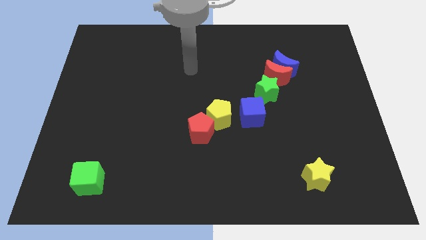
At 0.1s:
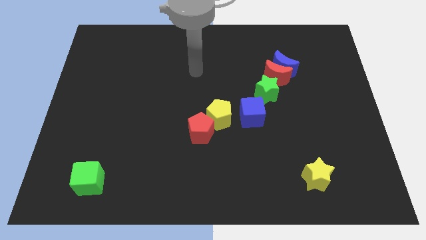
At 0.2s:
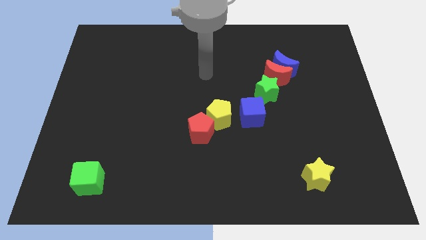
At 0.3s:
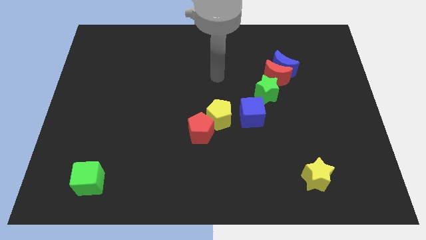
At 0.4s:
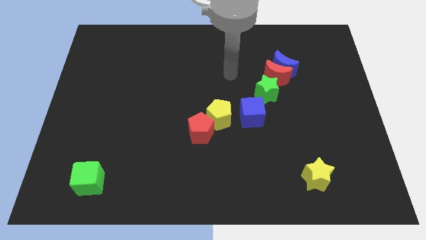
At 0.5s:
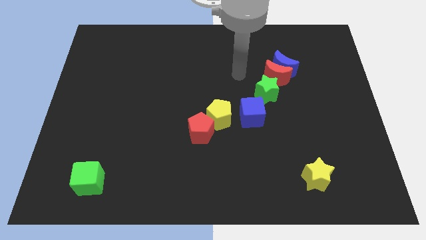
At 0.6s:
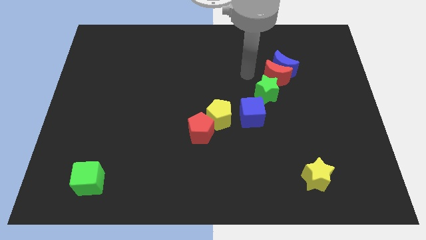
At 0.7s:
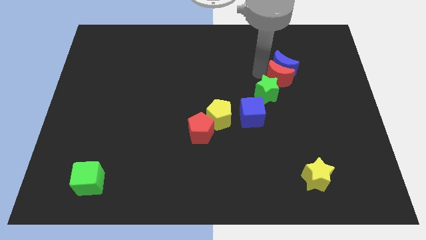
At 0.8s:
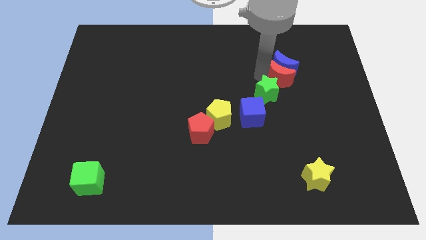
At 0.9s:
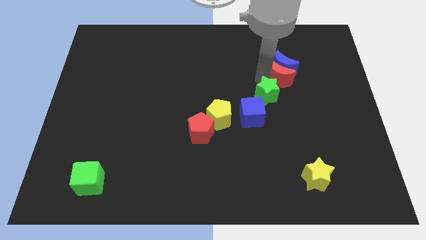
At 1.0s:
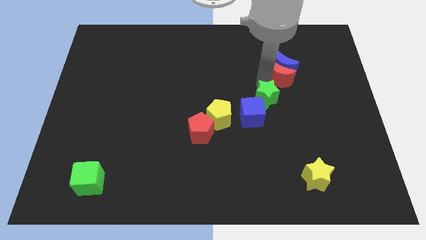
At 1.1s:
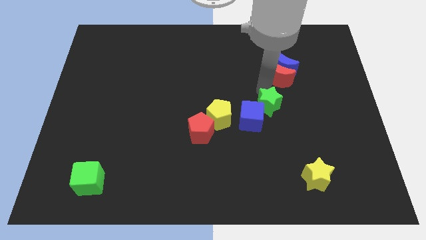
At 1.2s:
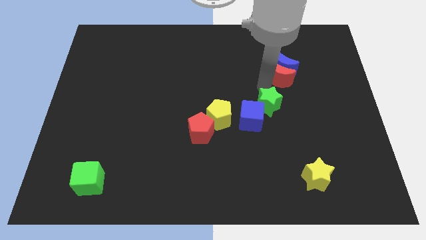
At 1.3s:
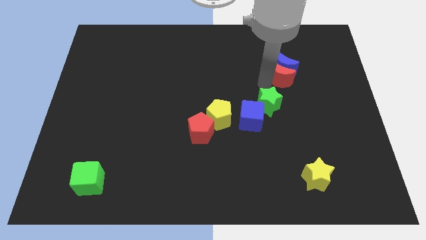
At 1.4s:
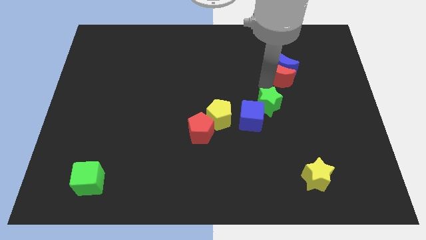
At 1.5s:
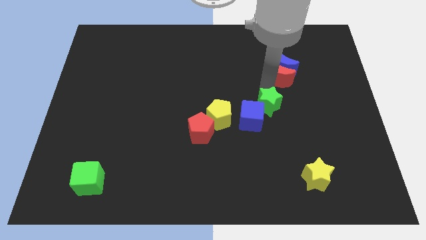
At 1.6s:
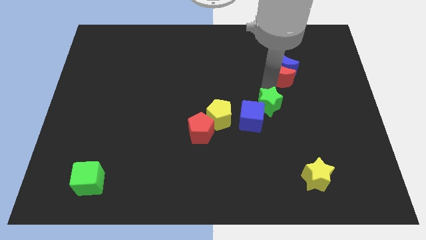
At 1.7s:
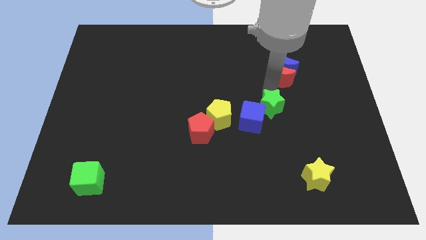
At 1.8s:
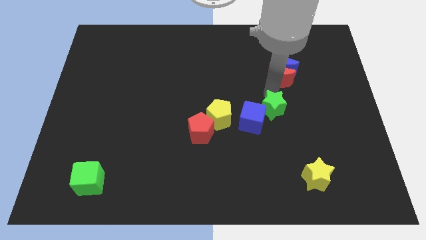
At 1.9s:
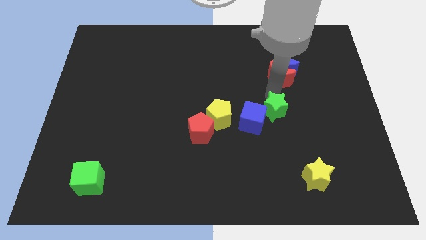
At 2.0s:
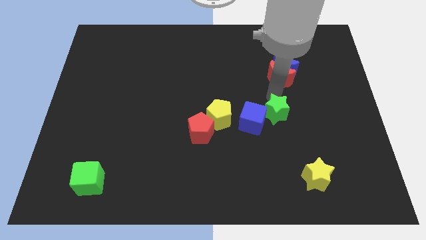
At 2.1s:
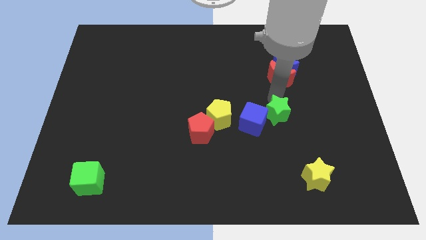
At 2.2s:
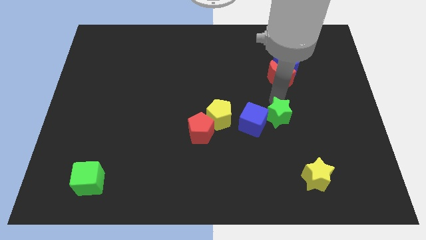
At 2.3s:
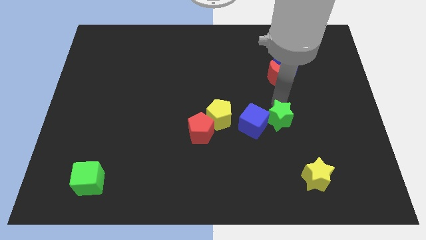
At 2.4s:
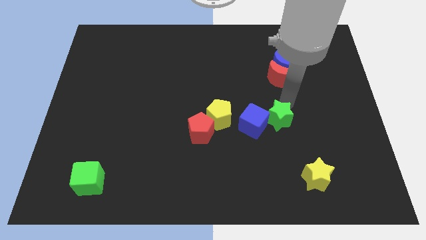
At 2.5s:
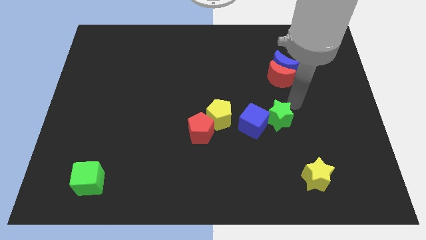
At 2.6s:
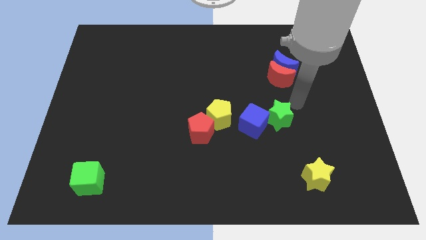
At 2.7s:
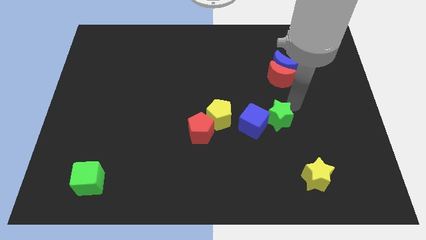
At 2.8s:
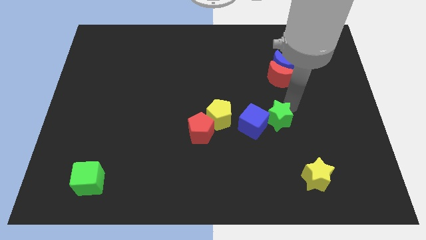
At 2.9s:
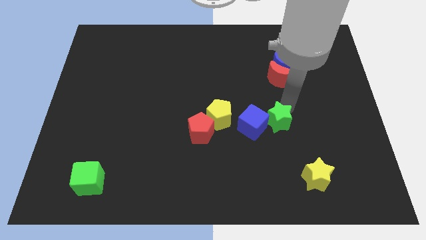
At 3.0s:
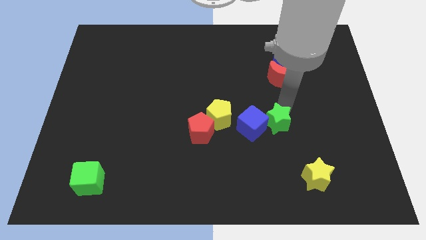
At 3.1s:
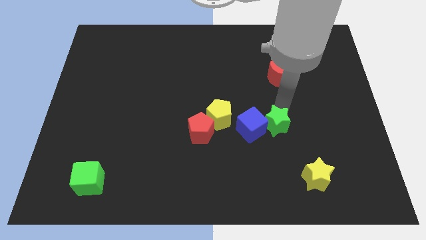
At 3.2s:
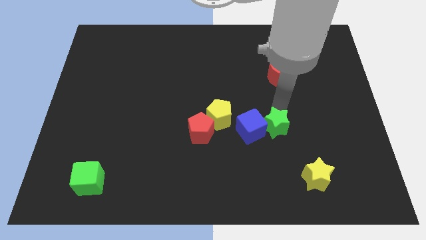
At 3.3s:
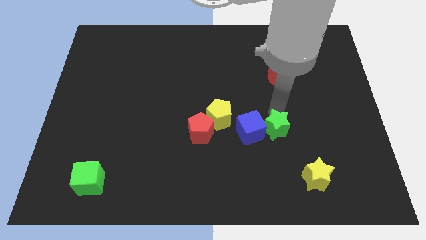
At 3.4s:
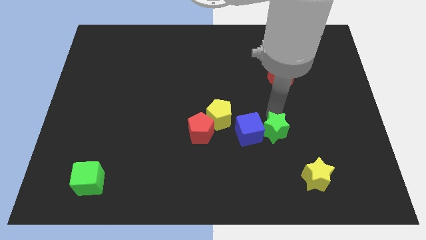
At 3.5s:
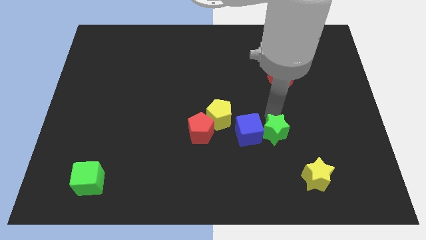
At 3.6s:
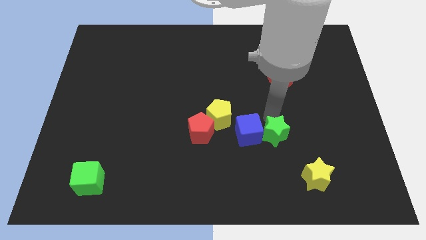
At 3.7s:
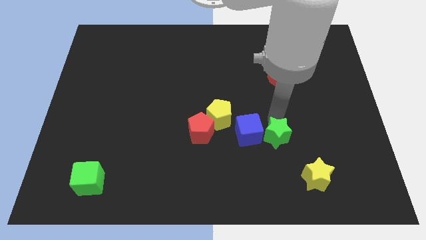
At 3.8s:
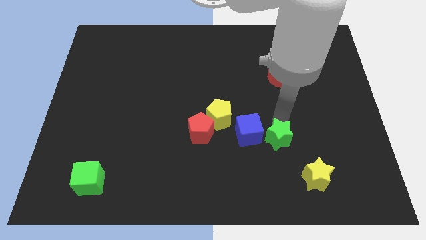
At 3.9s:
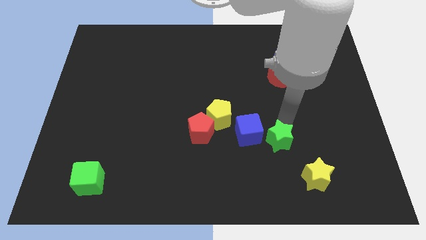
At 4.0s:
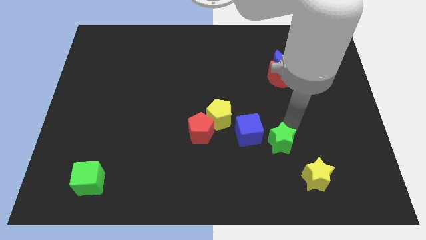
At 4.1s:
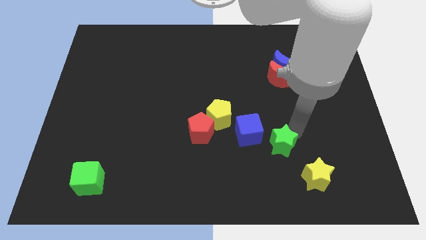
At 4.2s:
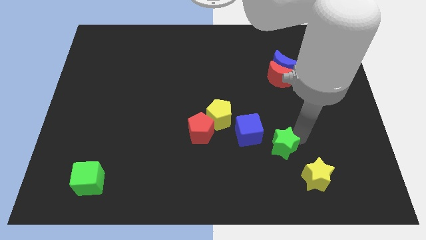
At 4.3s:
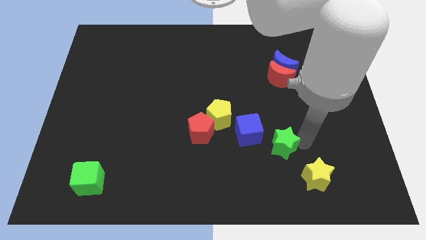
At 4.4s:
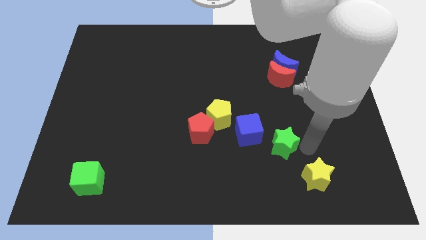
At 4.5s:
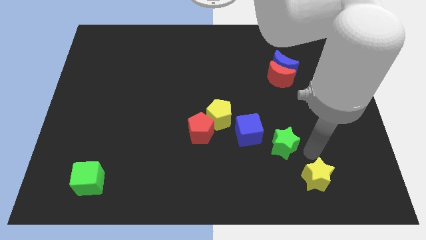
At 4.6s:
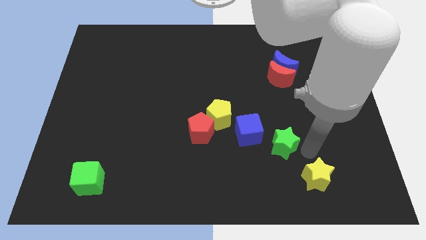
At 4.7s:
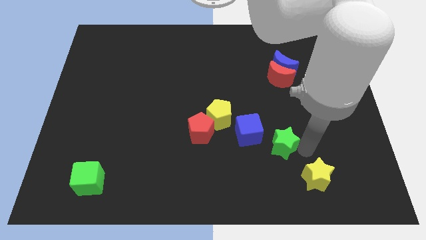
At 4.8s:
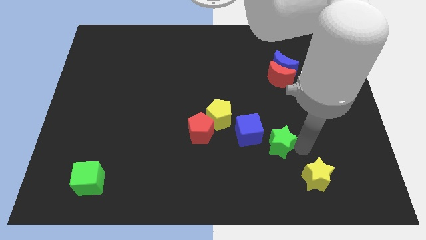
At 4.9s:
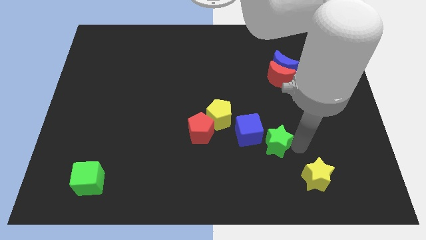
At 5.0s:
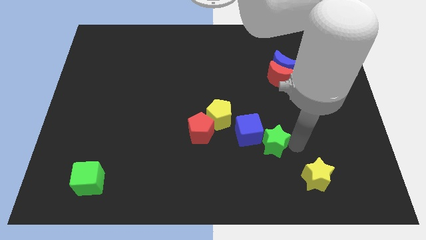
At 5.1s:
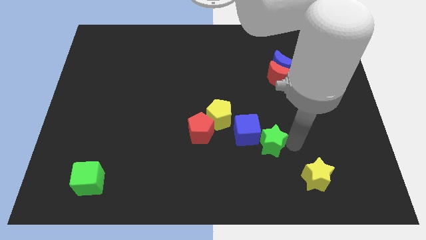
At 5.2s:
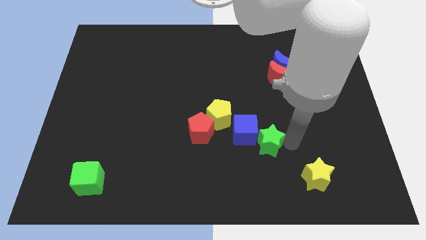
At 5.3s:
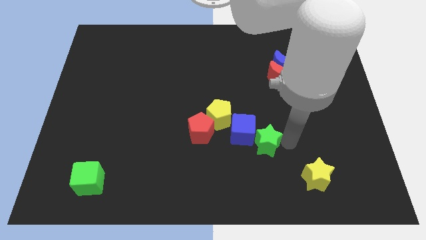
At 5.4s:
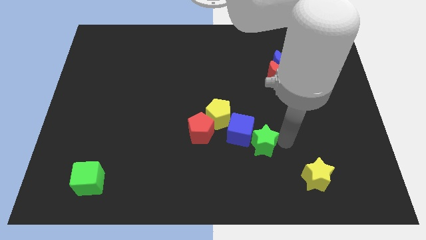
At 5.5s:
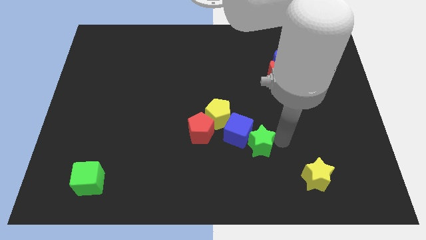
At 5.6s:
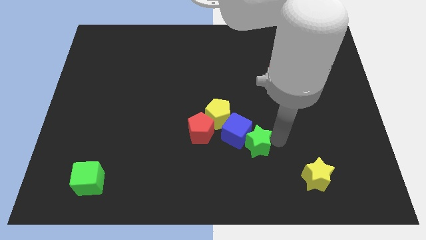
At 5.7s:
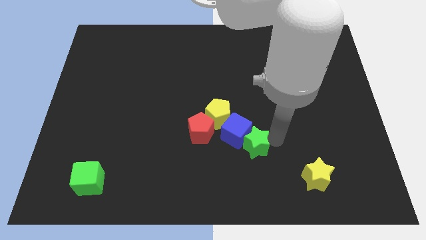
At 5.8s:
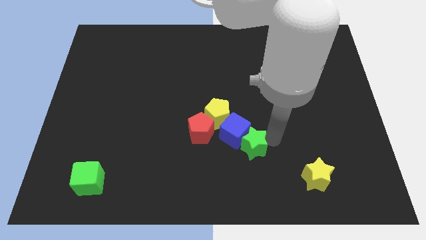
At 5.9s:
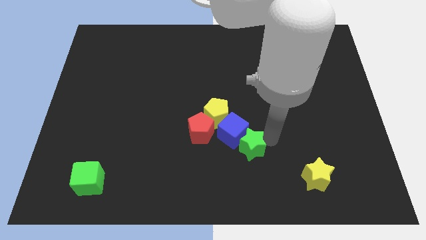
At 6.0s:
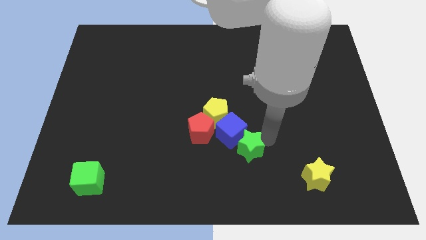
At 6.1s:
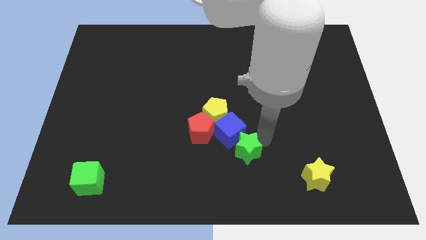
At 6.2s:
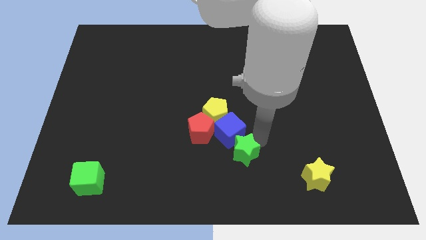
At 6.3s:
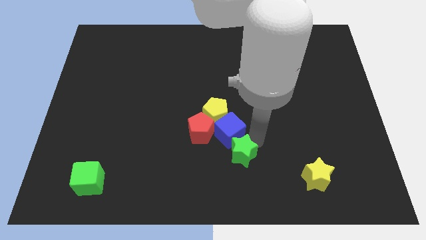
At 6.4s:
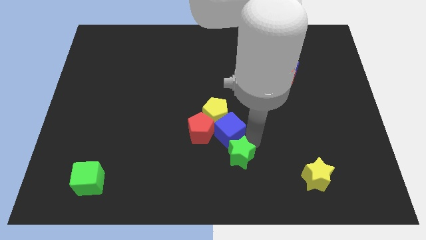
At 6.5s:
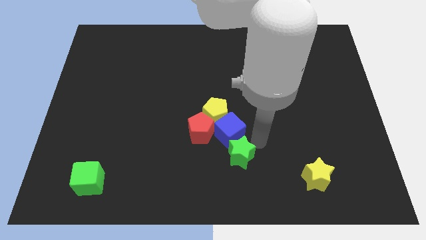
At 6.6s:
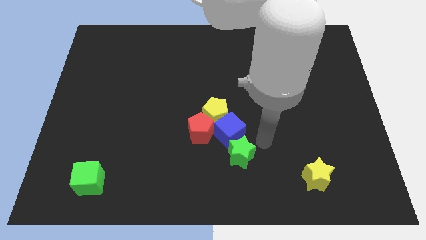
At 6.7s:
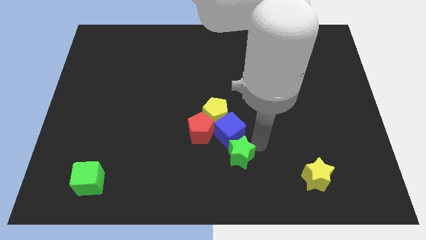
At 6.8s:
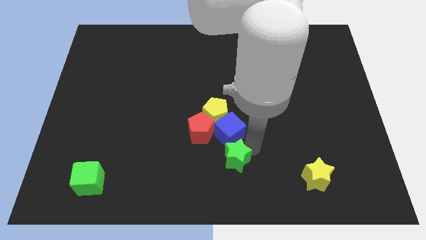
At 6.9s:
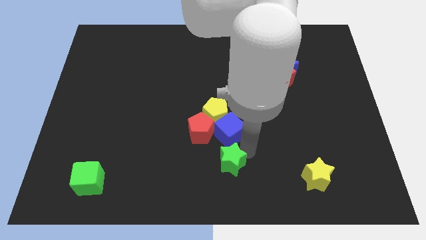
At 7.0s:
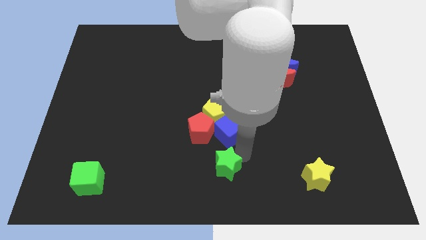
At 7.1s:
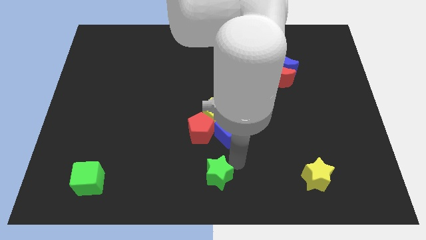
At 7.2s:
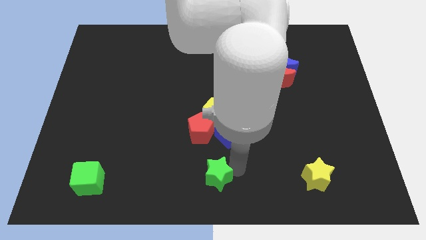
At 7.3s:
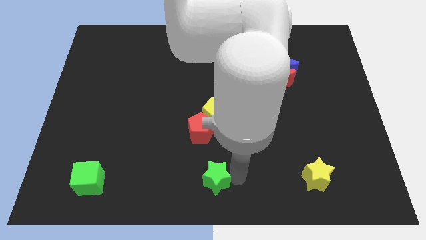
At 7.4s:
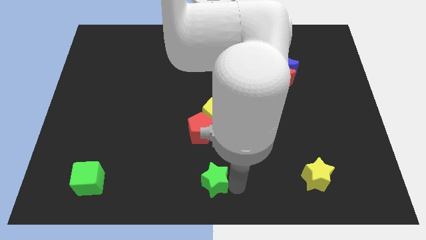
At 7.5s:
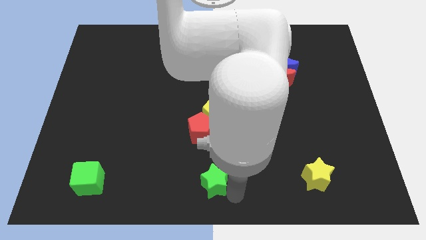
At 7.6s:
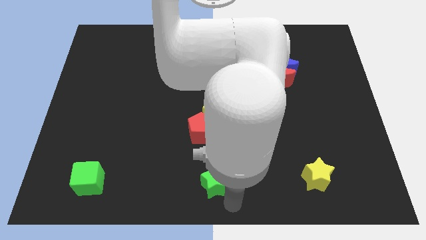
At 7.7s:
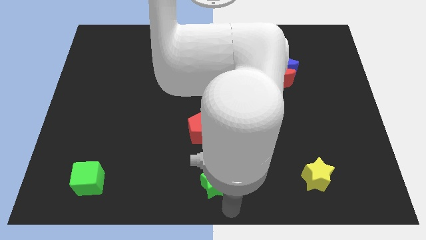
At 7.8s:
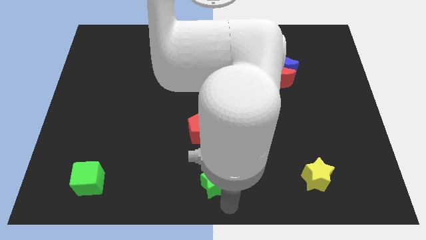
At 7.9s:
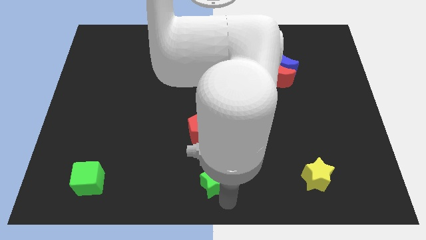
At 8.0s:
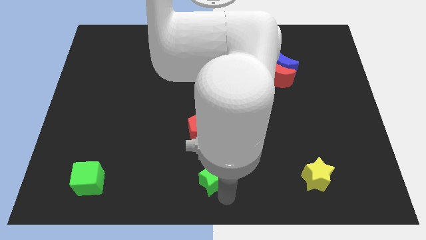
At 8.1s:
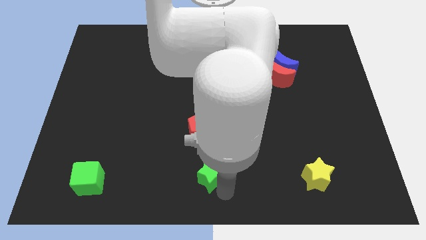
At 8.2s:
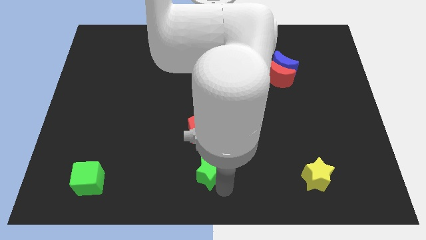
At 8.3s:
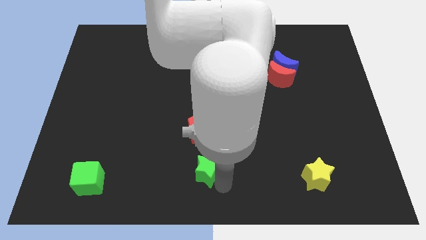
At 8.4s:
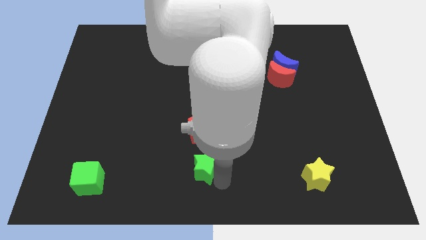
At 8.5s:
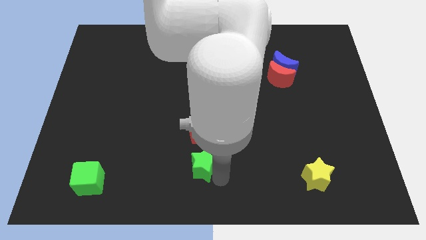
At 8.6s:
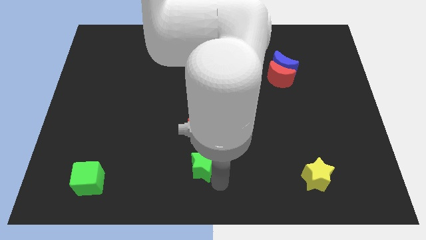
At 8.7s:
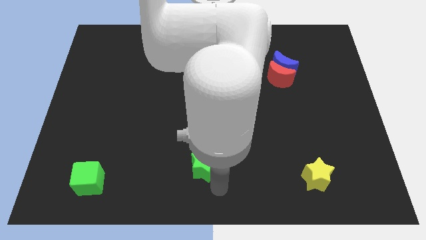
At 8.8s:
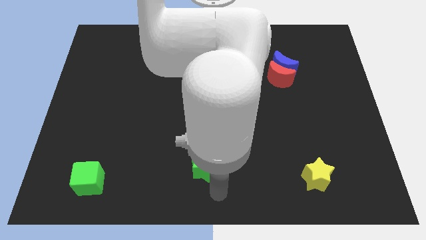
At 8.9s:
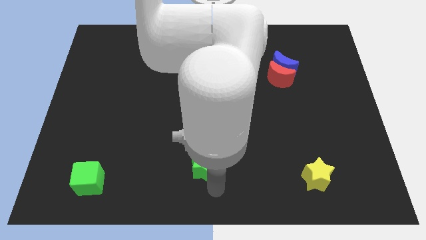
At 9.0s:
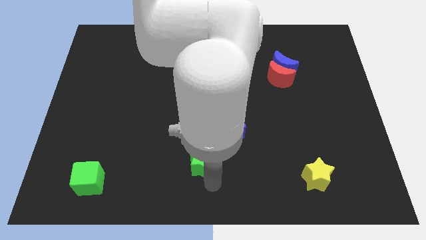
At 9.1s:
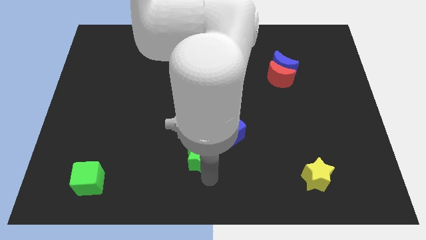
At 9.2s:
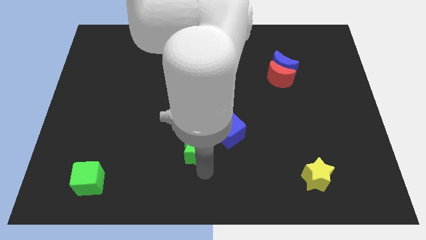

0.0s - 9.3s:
put the green star to the bottom left of the yellow pentagon
